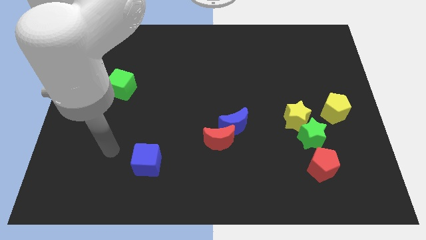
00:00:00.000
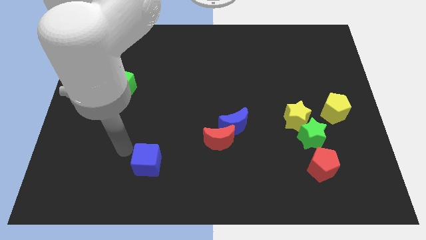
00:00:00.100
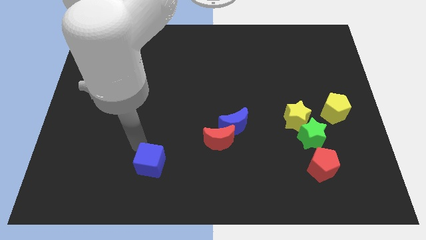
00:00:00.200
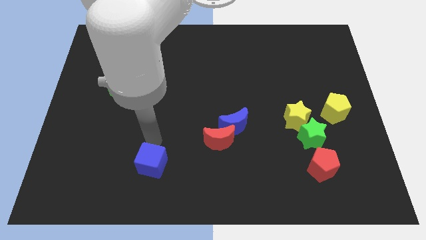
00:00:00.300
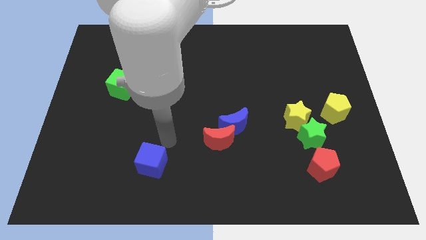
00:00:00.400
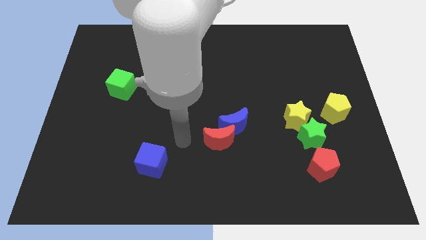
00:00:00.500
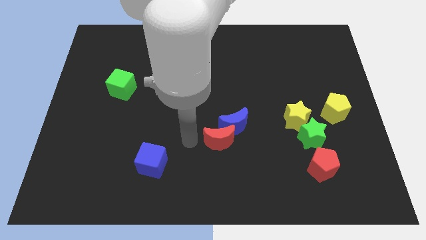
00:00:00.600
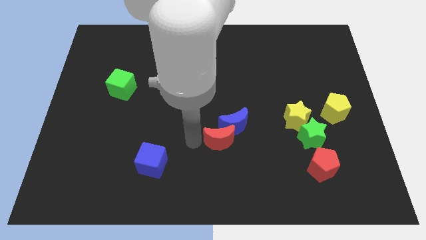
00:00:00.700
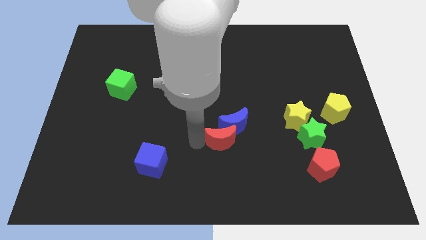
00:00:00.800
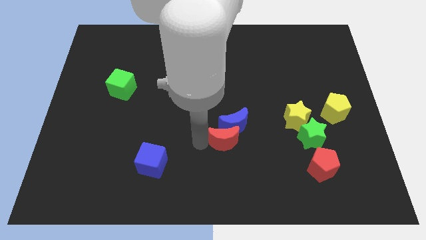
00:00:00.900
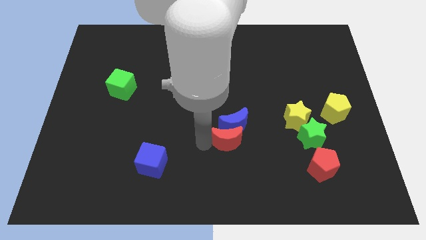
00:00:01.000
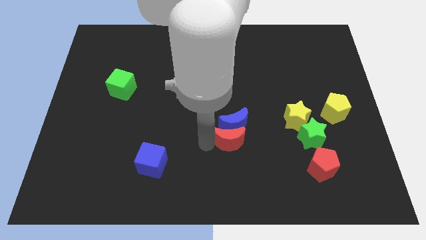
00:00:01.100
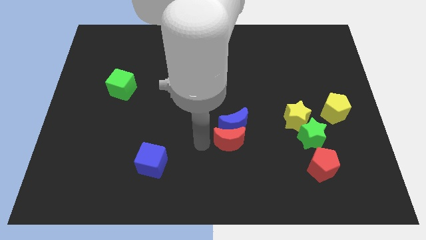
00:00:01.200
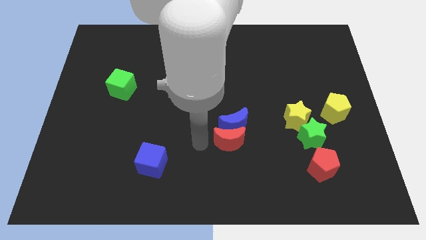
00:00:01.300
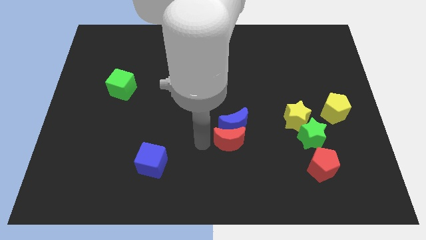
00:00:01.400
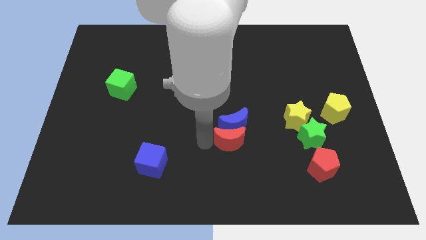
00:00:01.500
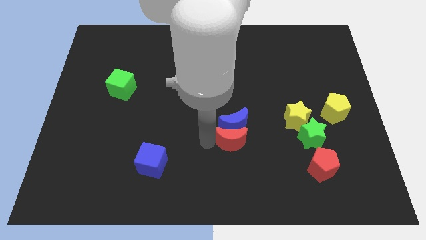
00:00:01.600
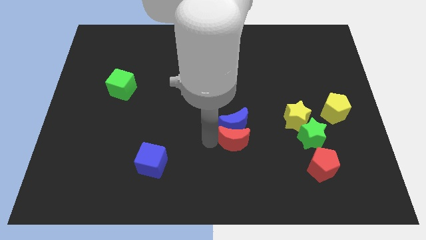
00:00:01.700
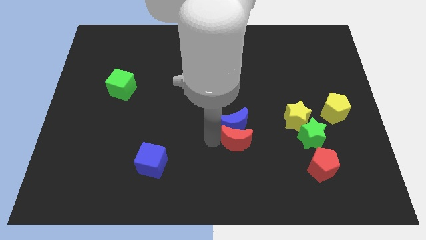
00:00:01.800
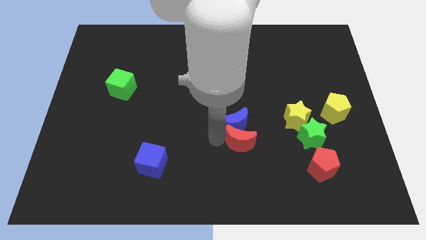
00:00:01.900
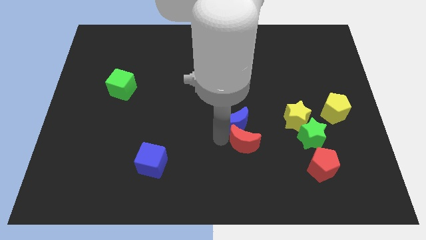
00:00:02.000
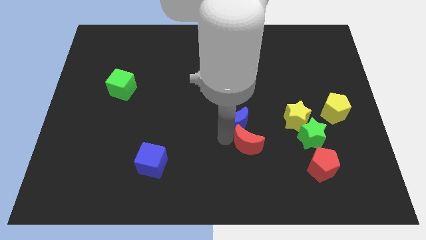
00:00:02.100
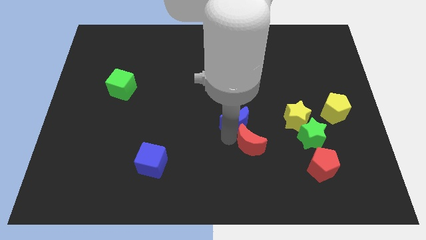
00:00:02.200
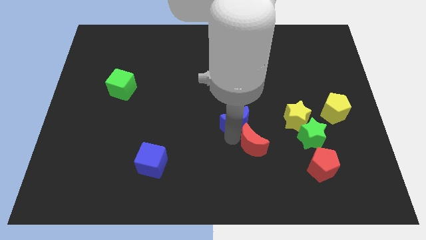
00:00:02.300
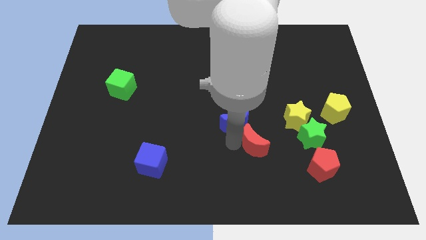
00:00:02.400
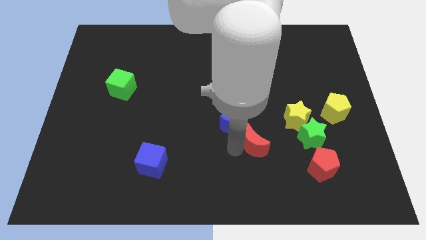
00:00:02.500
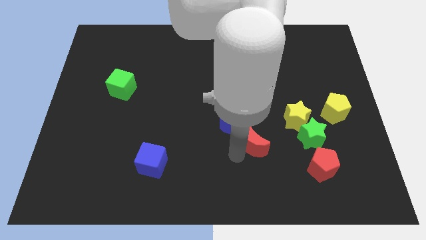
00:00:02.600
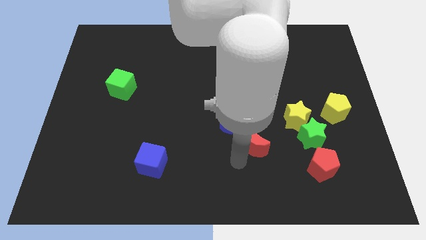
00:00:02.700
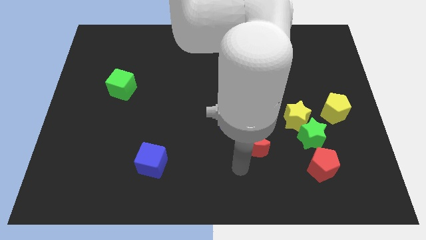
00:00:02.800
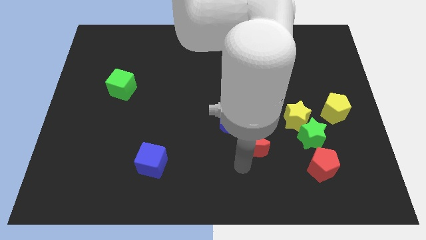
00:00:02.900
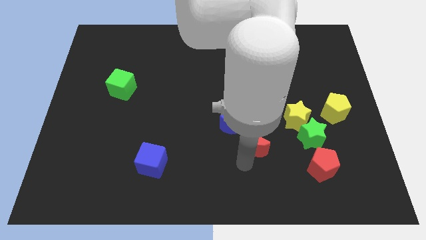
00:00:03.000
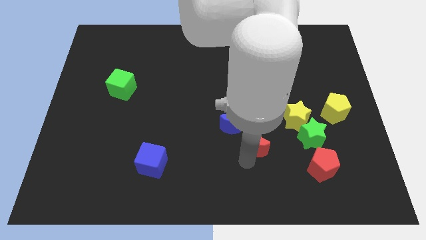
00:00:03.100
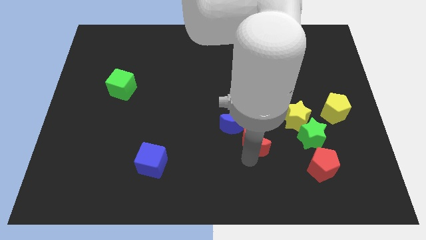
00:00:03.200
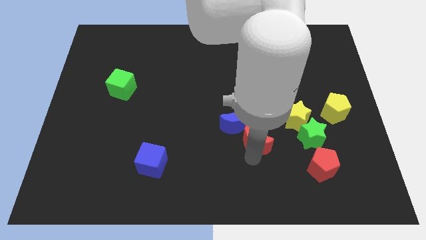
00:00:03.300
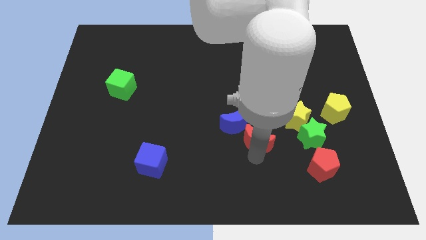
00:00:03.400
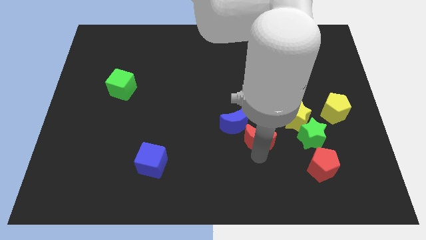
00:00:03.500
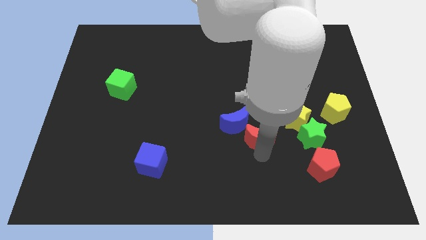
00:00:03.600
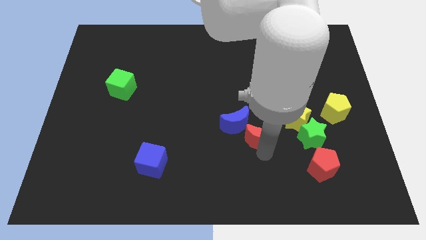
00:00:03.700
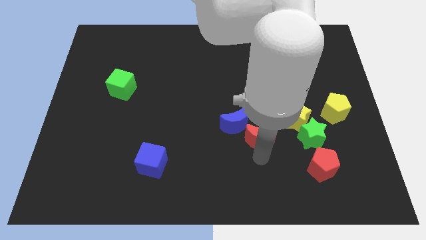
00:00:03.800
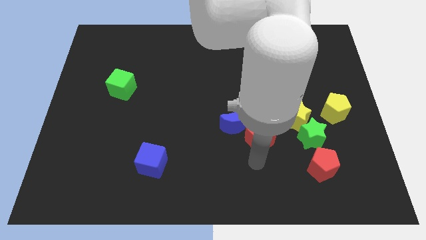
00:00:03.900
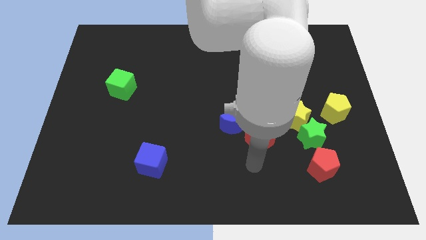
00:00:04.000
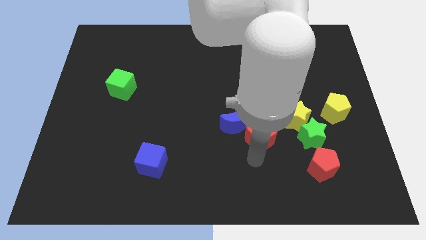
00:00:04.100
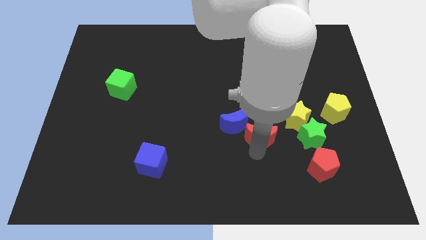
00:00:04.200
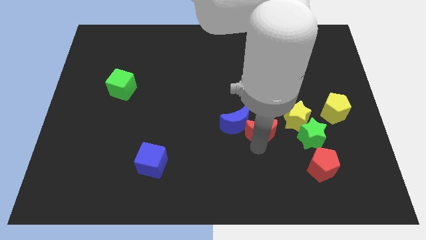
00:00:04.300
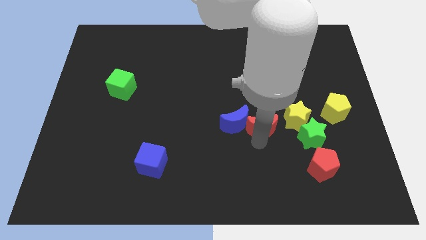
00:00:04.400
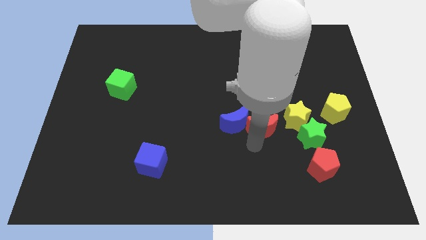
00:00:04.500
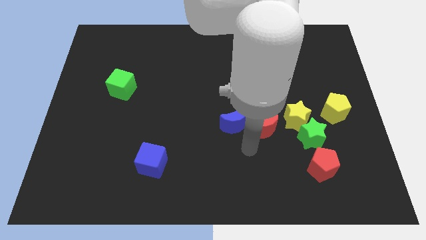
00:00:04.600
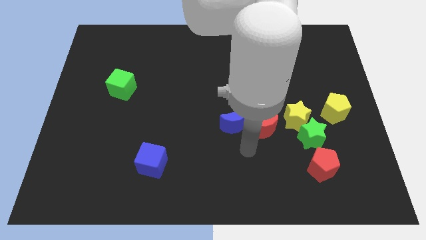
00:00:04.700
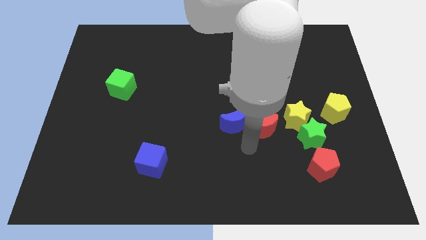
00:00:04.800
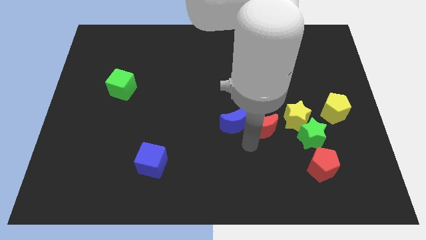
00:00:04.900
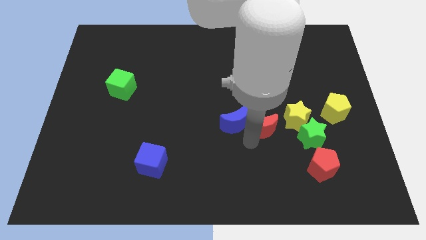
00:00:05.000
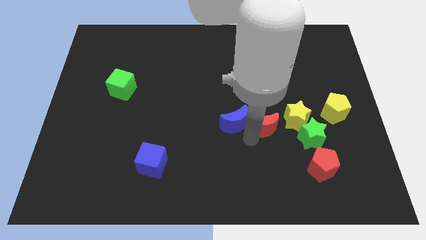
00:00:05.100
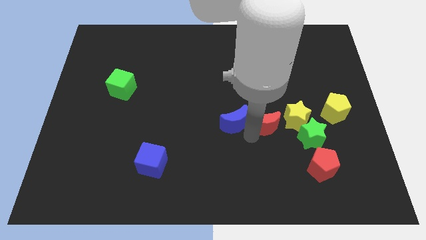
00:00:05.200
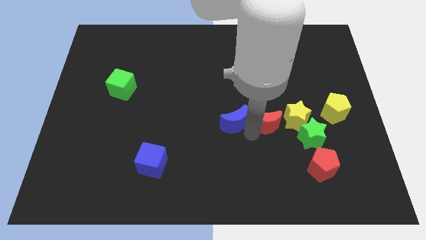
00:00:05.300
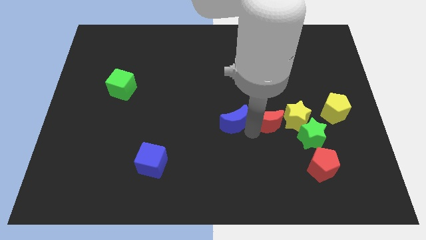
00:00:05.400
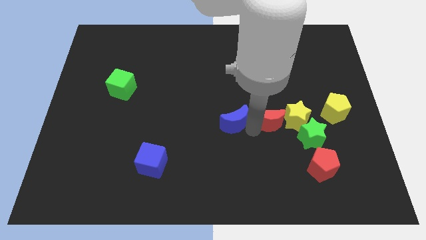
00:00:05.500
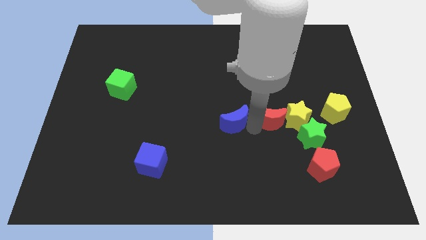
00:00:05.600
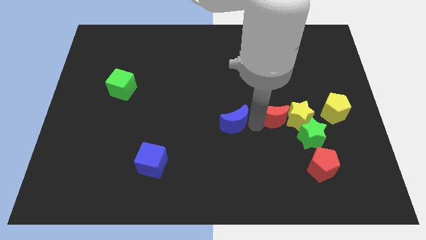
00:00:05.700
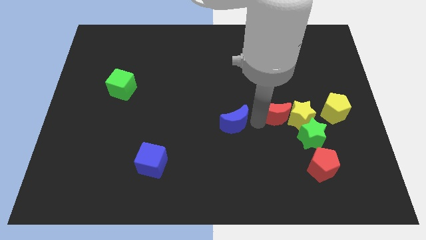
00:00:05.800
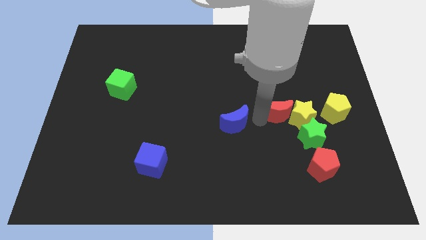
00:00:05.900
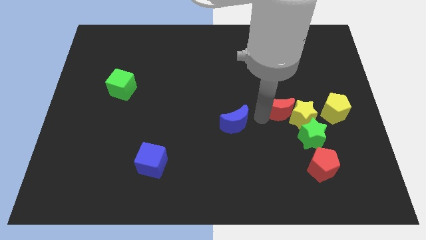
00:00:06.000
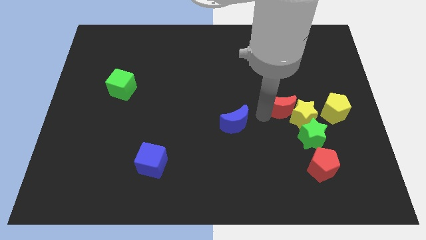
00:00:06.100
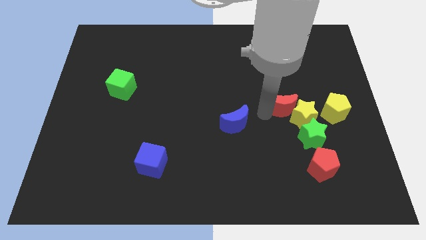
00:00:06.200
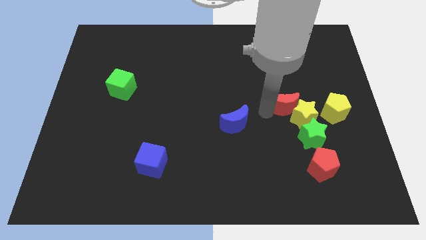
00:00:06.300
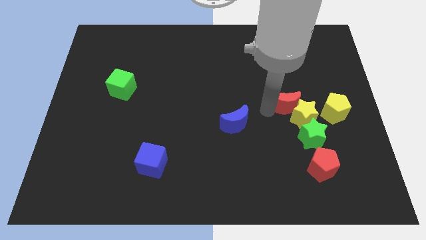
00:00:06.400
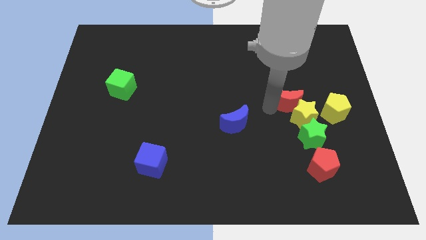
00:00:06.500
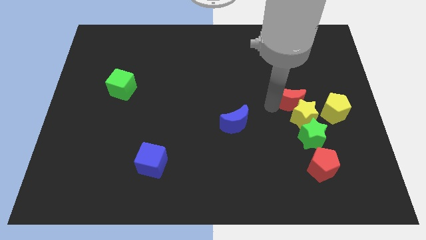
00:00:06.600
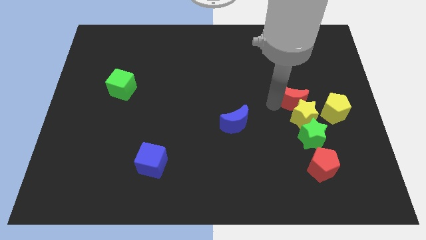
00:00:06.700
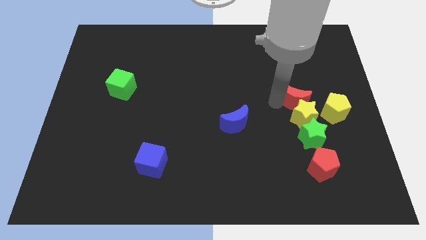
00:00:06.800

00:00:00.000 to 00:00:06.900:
slide the red moon upwards and to the right diagonally

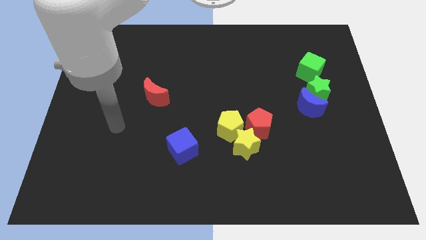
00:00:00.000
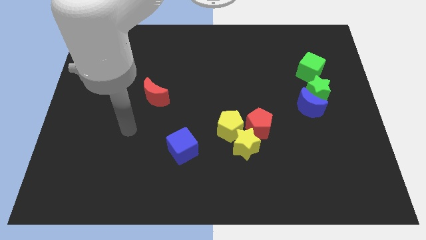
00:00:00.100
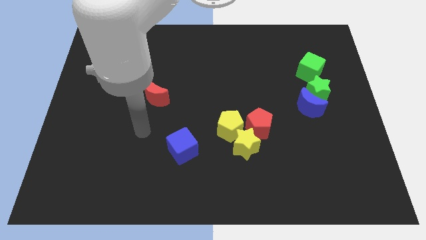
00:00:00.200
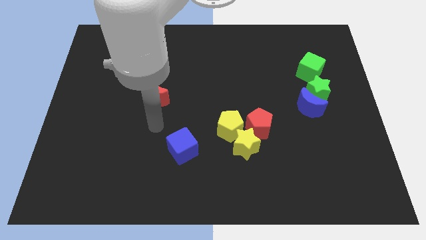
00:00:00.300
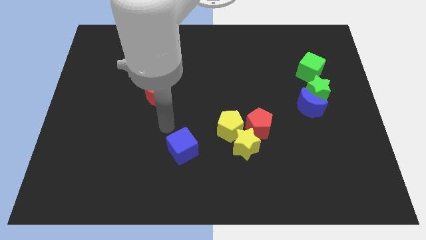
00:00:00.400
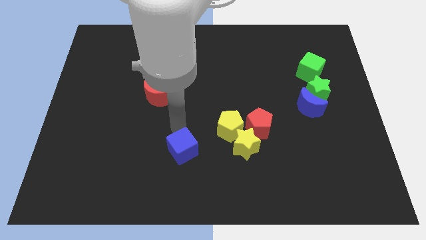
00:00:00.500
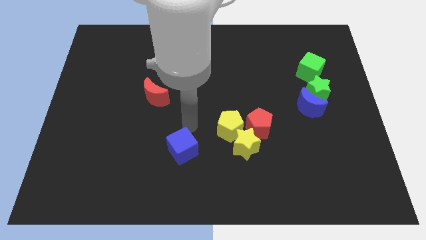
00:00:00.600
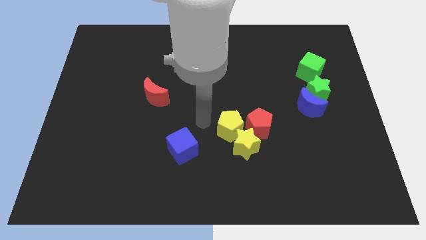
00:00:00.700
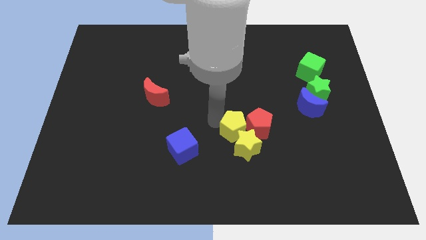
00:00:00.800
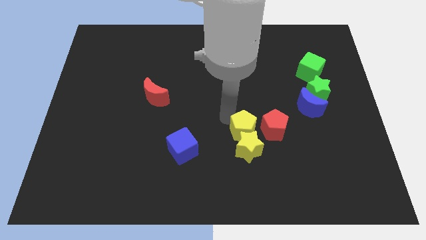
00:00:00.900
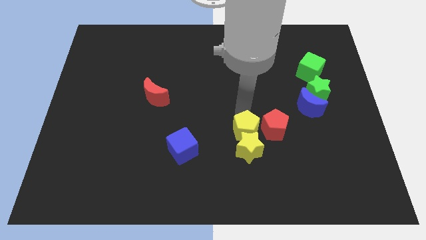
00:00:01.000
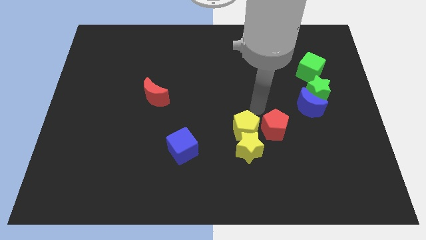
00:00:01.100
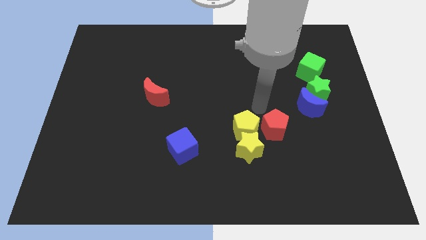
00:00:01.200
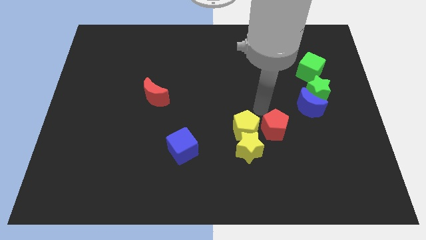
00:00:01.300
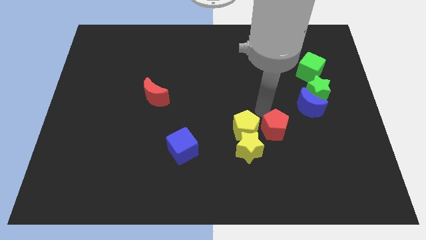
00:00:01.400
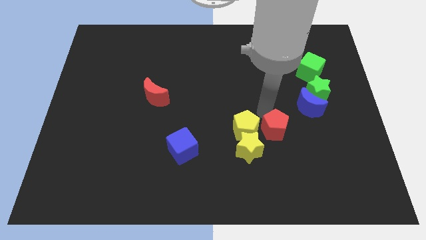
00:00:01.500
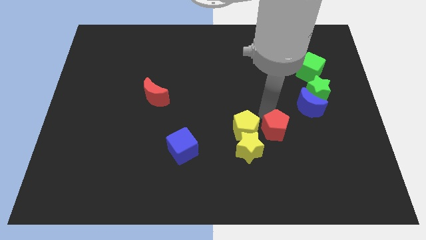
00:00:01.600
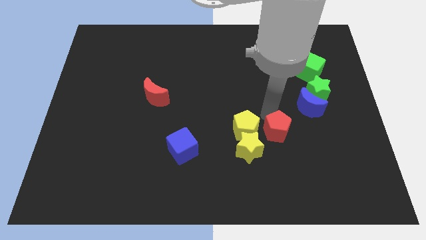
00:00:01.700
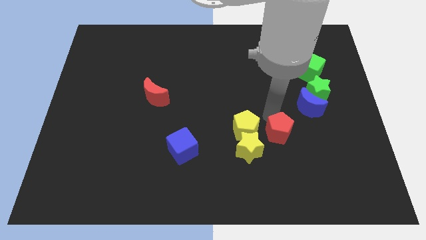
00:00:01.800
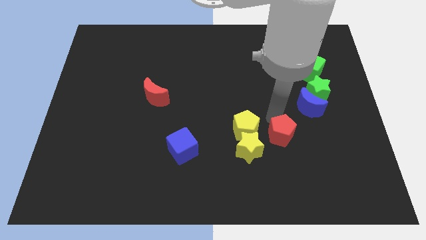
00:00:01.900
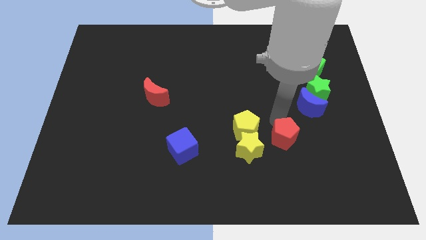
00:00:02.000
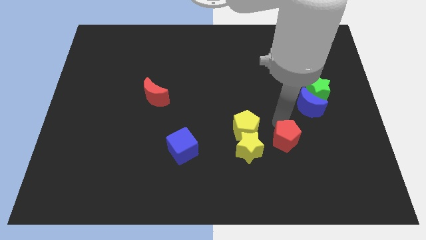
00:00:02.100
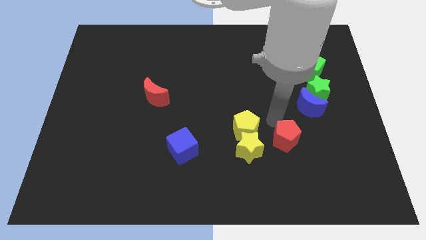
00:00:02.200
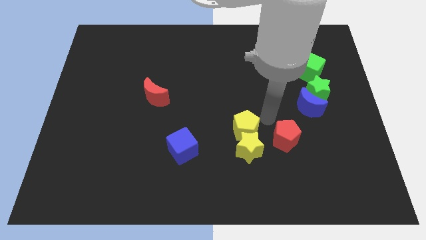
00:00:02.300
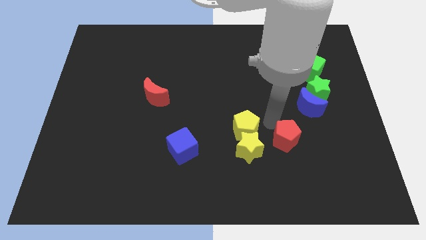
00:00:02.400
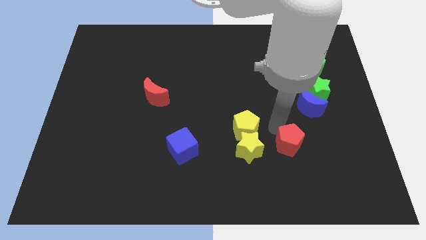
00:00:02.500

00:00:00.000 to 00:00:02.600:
slightly slide the red pentagon downwards and right diagonally
